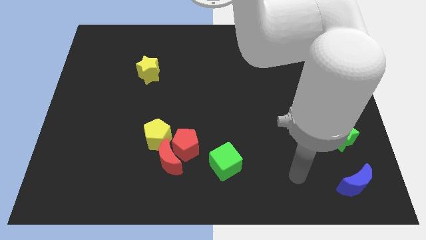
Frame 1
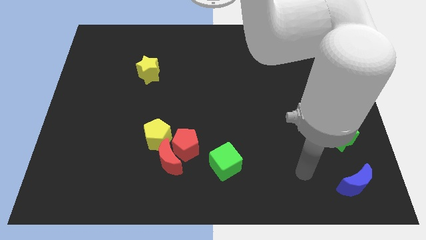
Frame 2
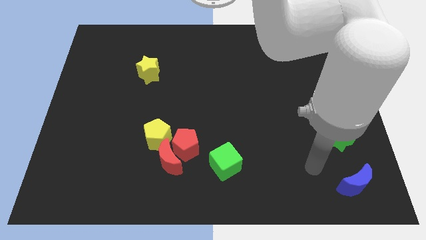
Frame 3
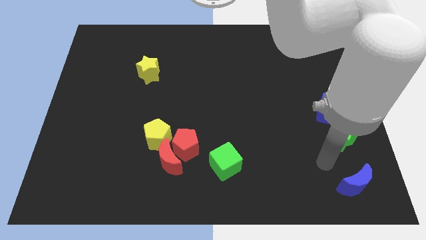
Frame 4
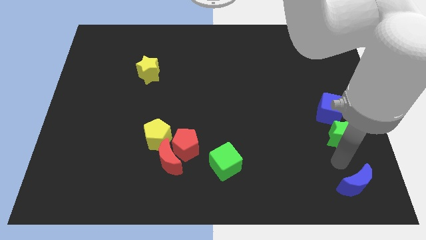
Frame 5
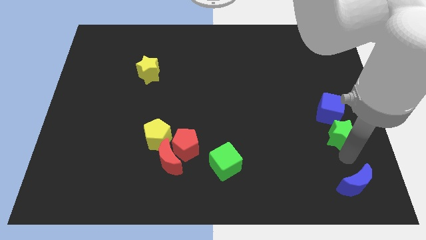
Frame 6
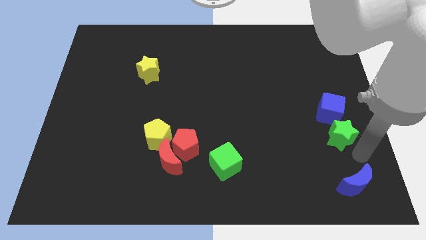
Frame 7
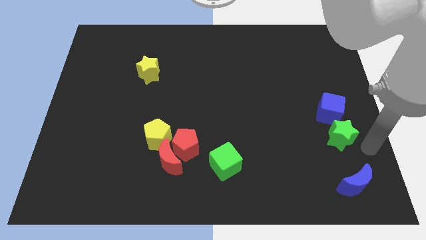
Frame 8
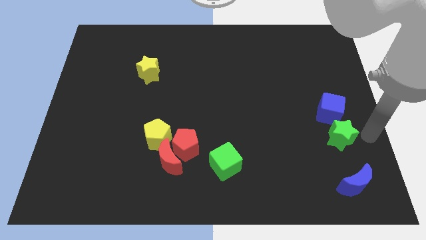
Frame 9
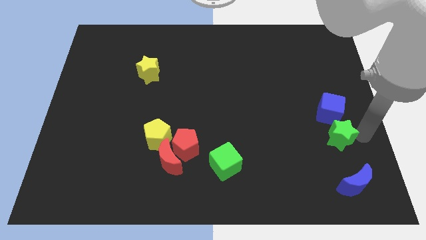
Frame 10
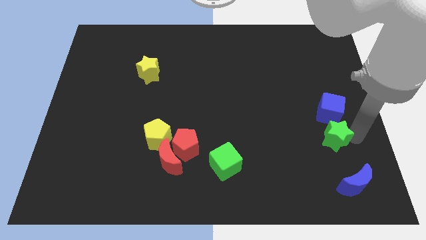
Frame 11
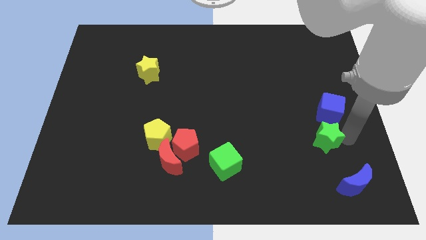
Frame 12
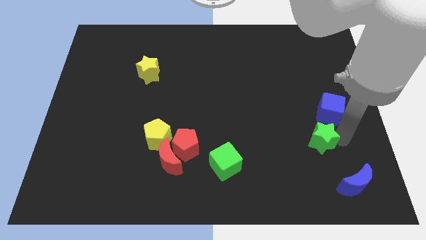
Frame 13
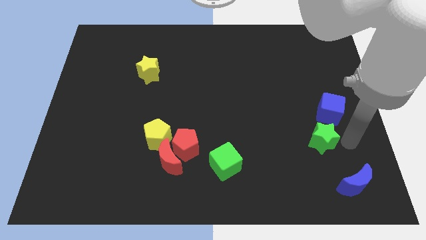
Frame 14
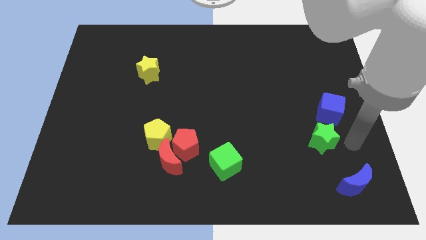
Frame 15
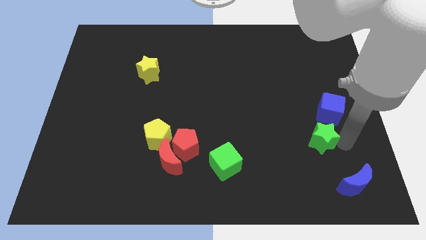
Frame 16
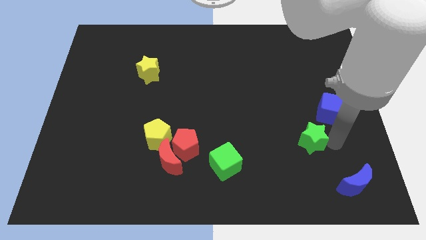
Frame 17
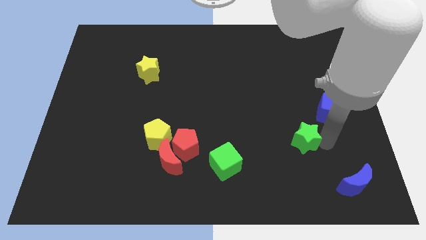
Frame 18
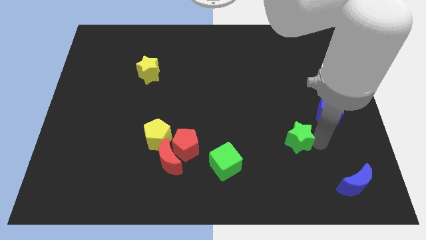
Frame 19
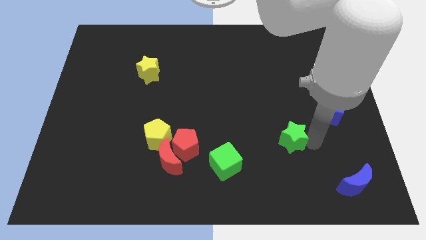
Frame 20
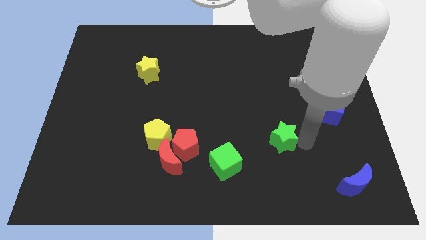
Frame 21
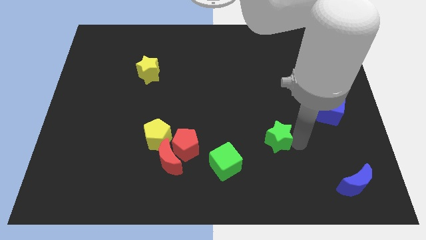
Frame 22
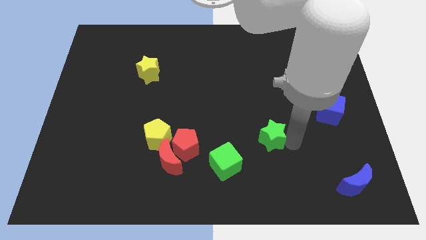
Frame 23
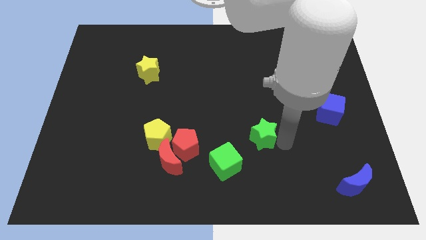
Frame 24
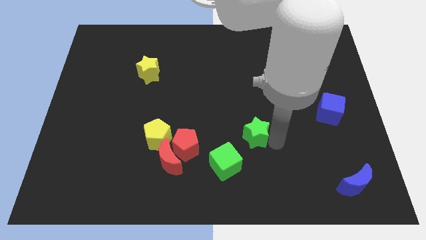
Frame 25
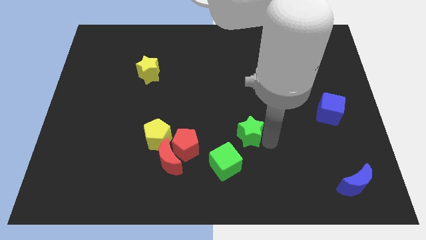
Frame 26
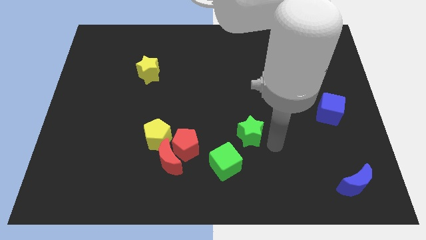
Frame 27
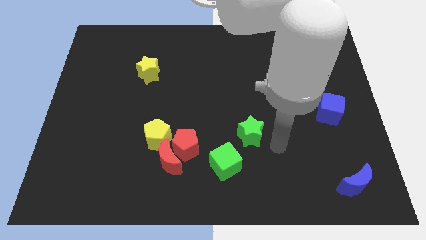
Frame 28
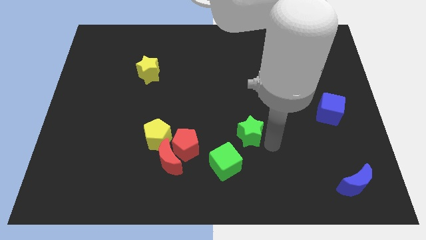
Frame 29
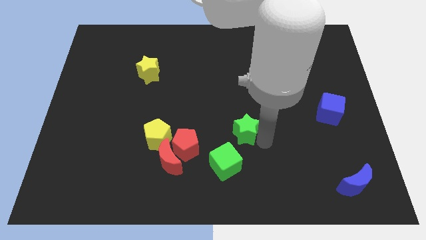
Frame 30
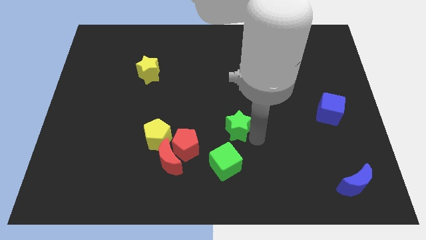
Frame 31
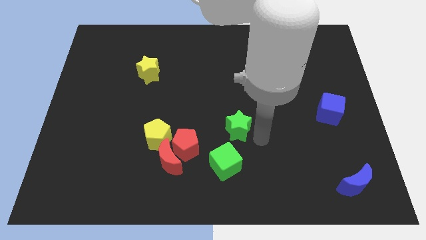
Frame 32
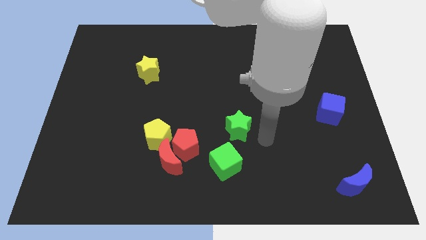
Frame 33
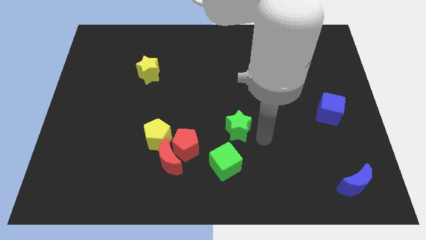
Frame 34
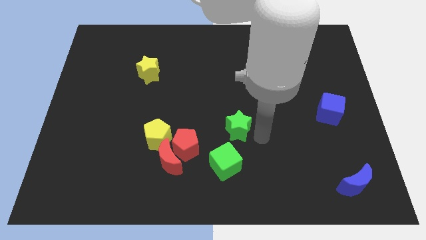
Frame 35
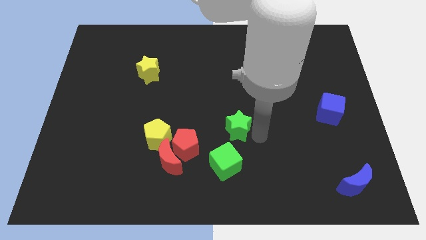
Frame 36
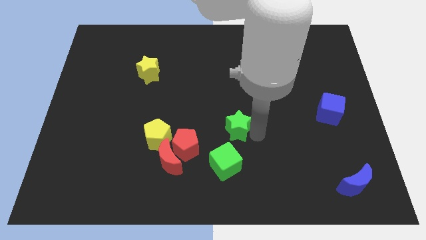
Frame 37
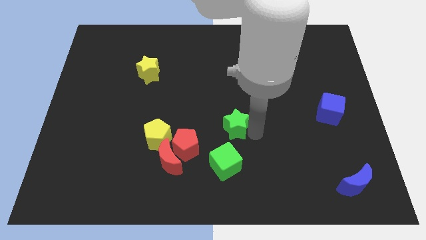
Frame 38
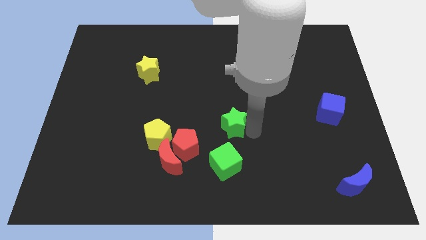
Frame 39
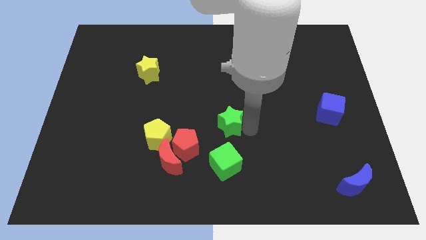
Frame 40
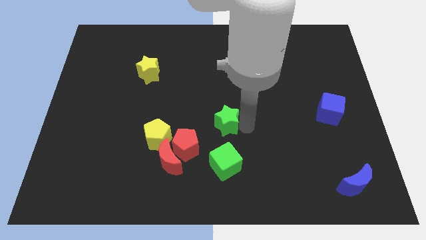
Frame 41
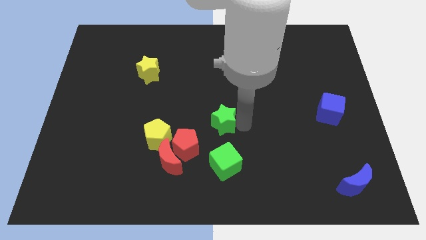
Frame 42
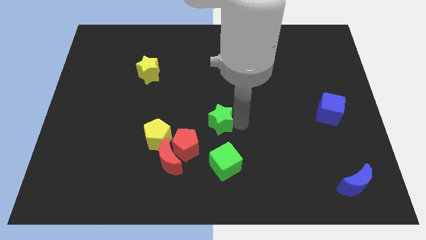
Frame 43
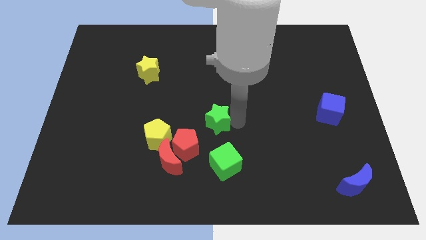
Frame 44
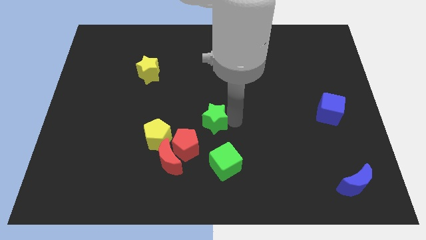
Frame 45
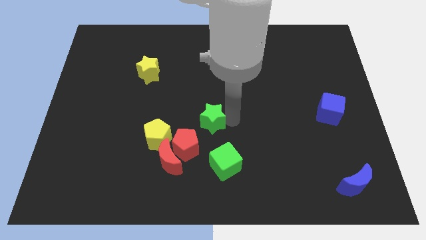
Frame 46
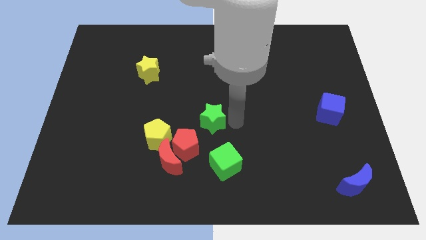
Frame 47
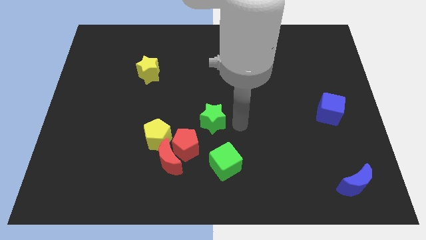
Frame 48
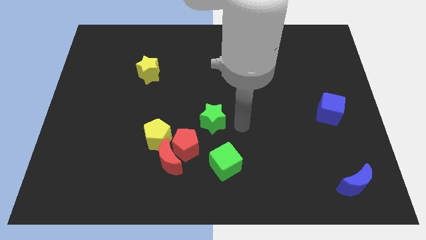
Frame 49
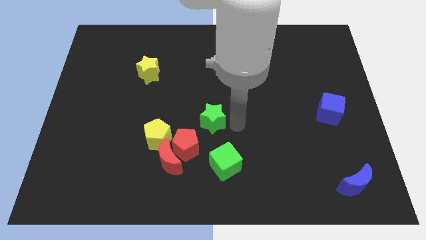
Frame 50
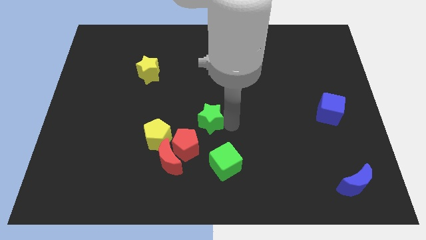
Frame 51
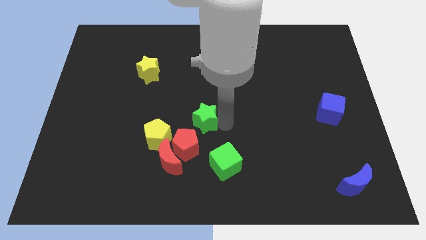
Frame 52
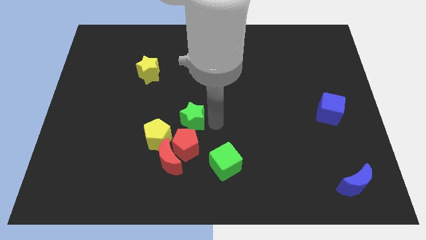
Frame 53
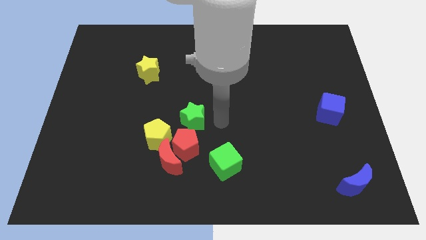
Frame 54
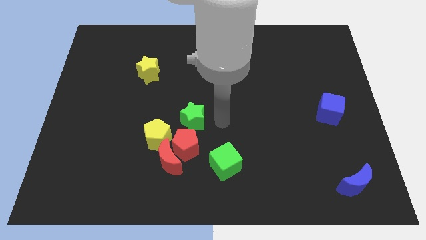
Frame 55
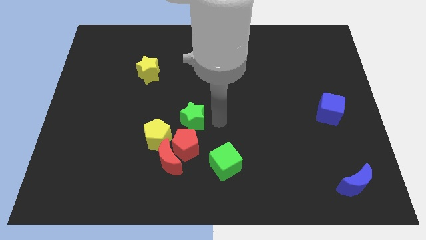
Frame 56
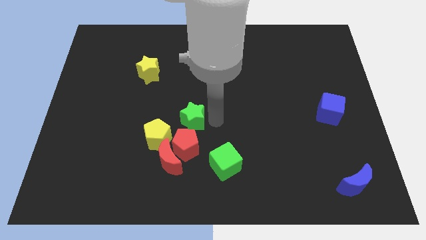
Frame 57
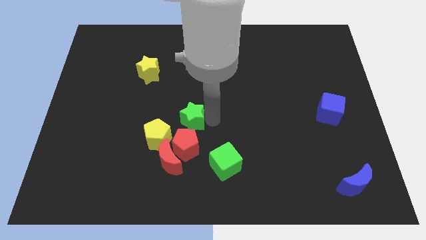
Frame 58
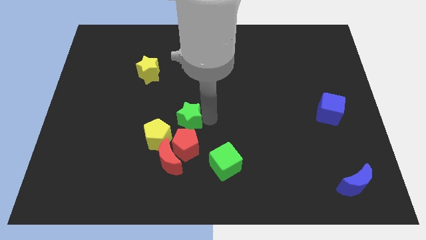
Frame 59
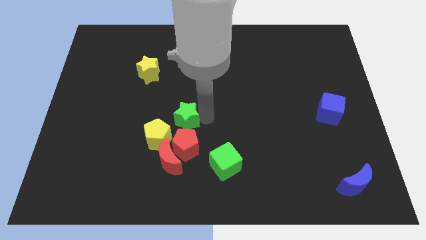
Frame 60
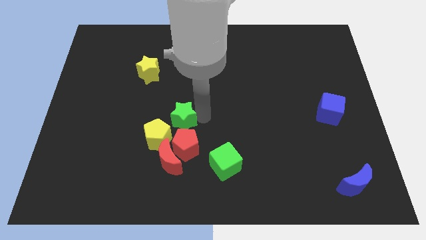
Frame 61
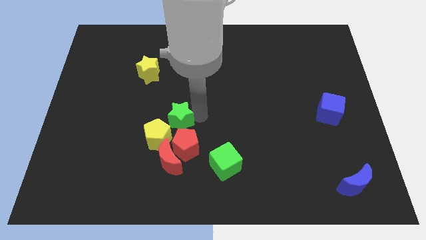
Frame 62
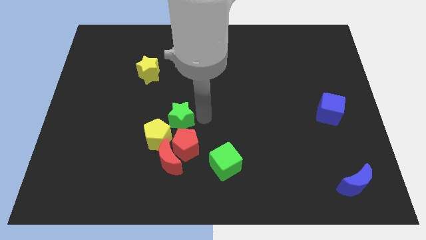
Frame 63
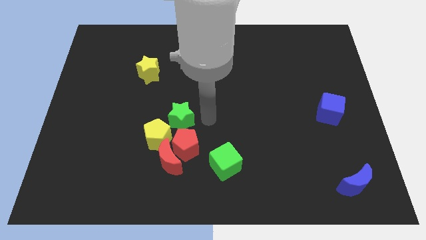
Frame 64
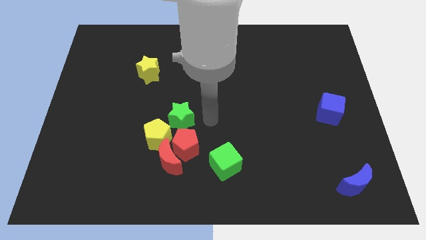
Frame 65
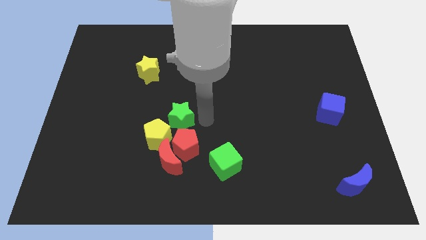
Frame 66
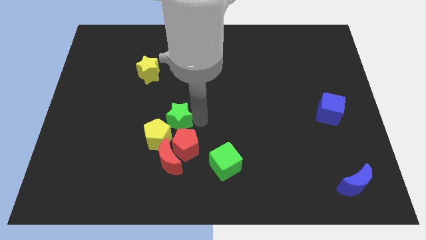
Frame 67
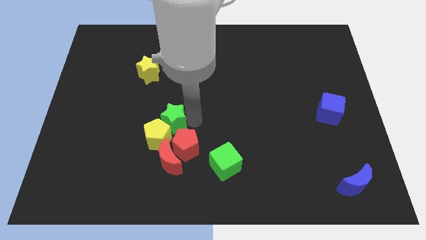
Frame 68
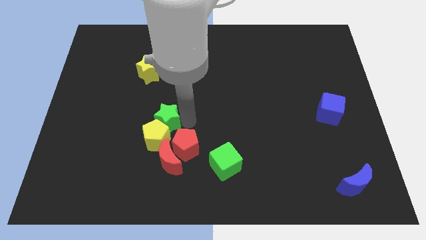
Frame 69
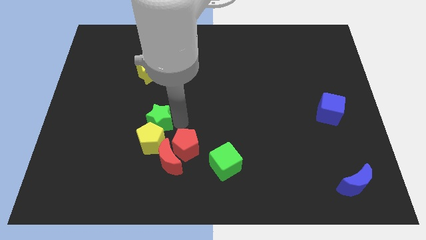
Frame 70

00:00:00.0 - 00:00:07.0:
put the green star to the top left of the yellow pentagon
